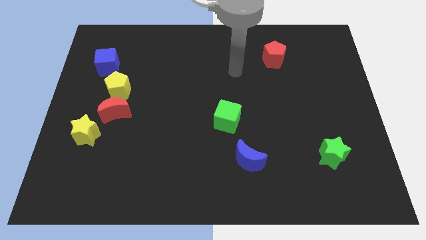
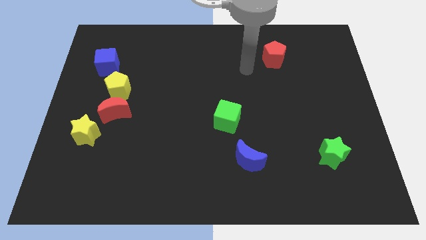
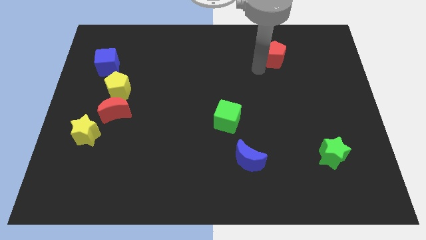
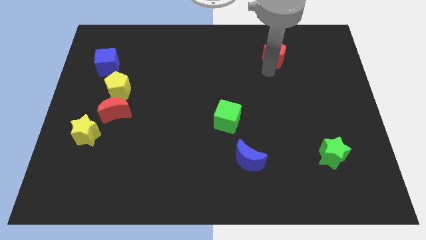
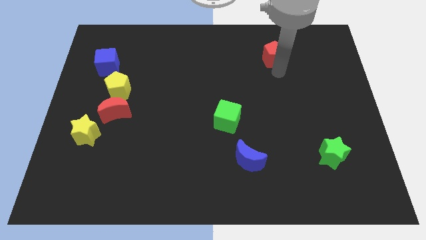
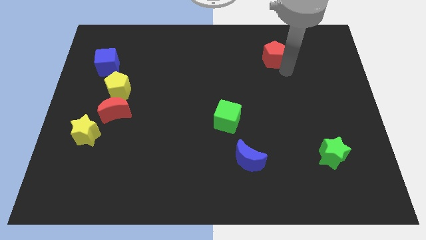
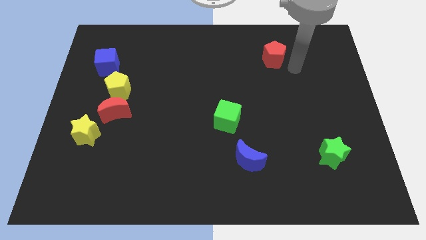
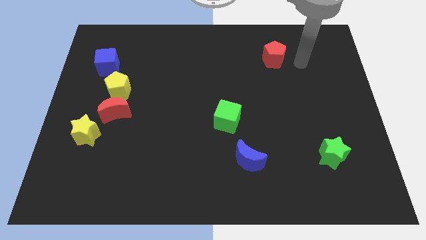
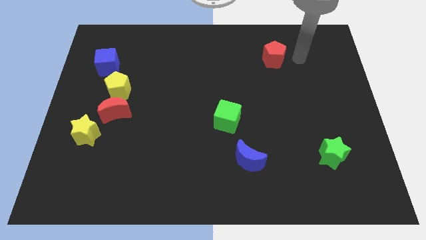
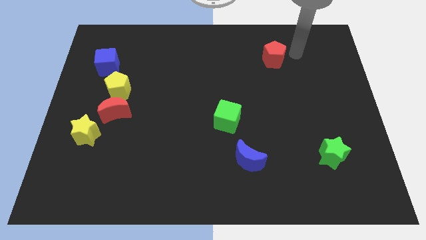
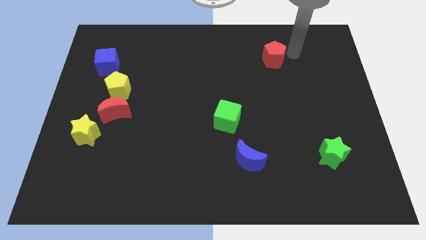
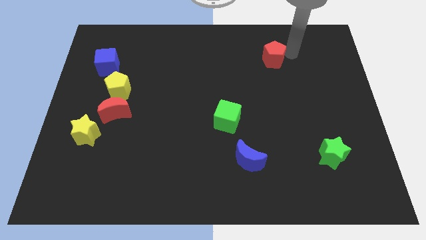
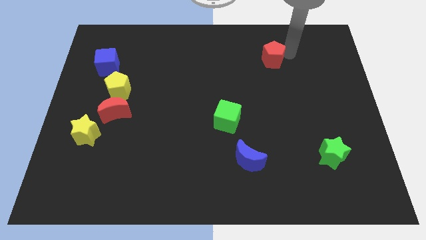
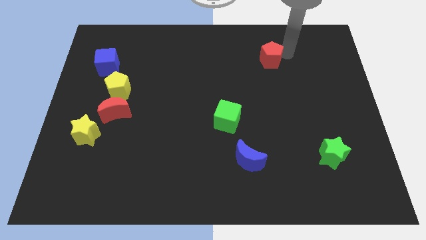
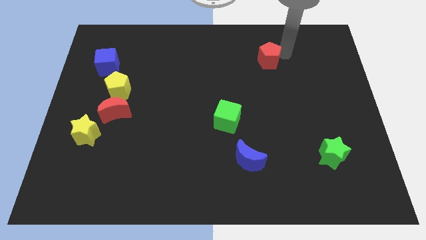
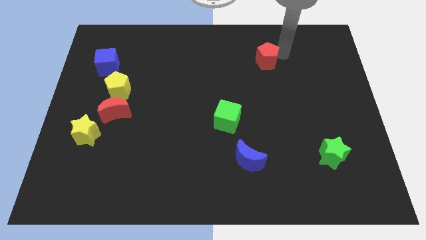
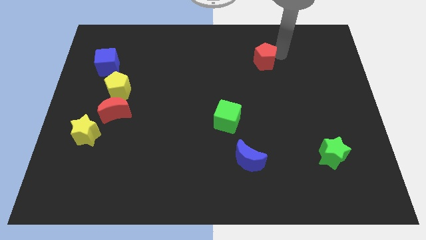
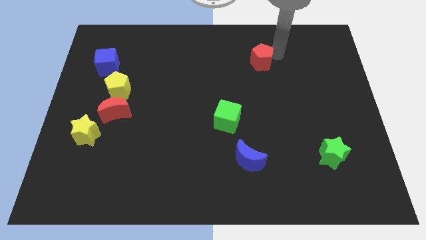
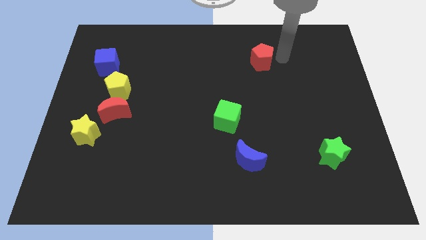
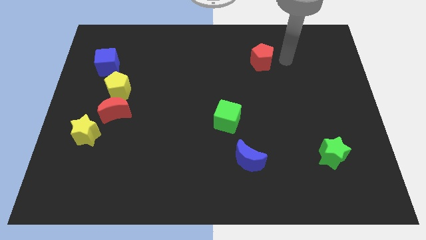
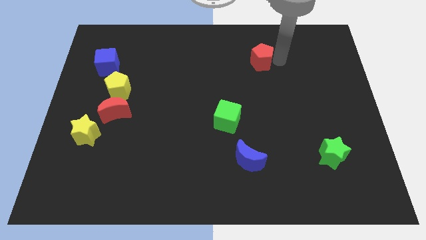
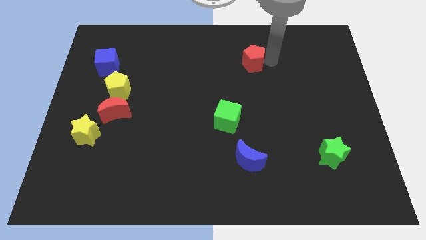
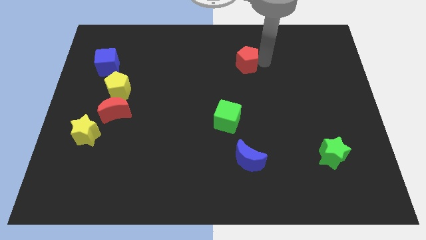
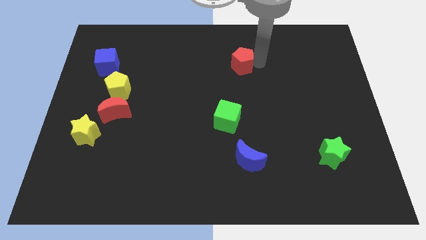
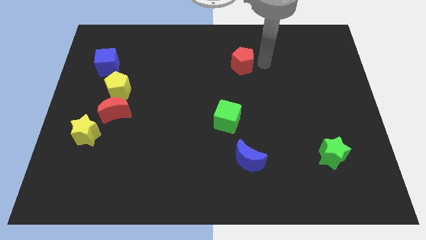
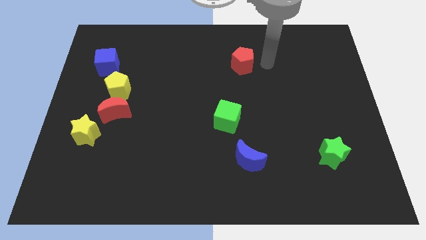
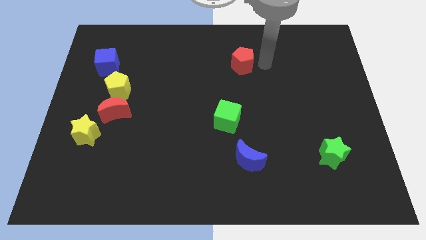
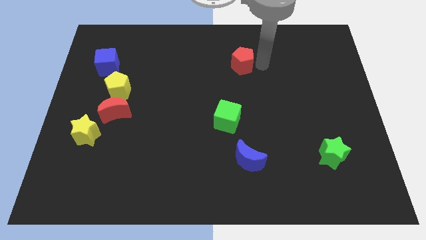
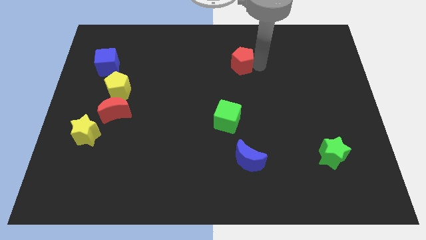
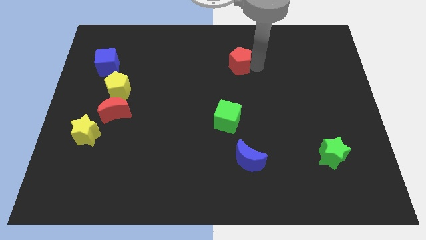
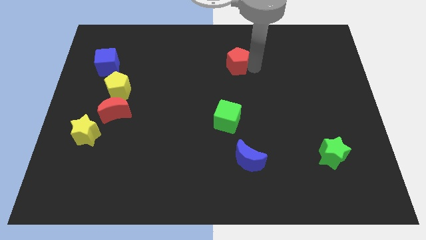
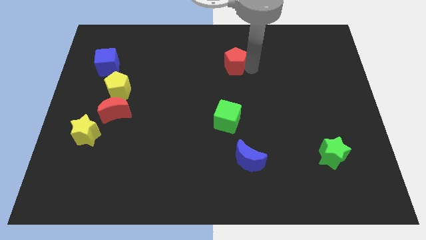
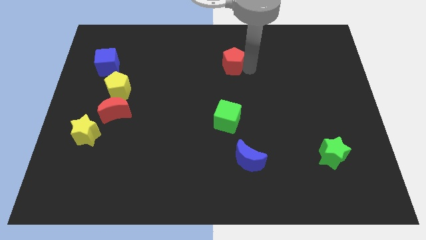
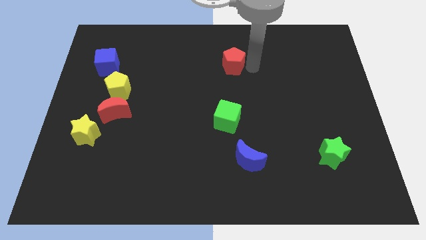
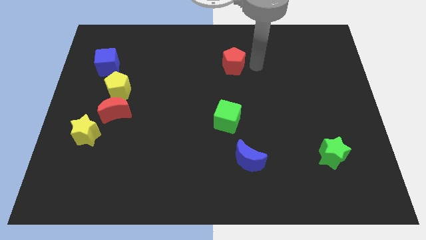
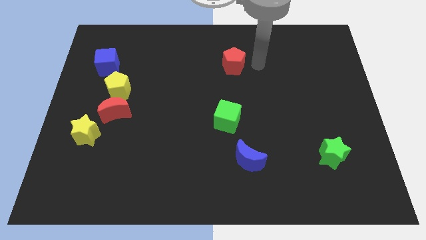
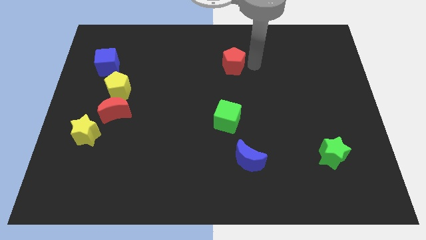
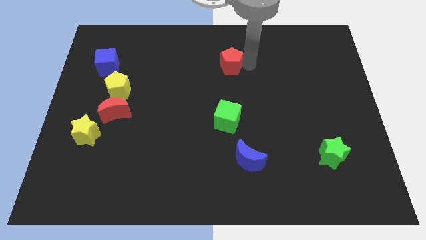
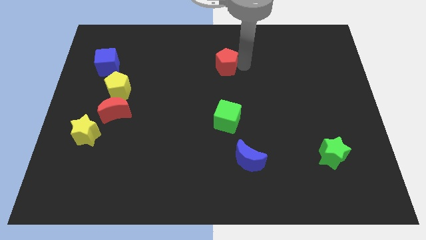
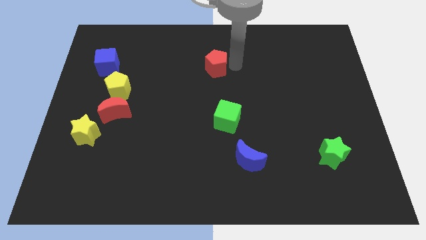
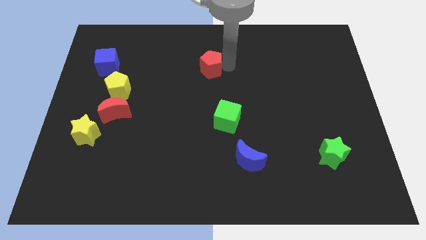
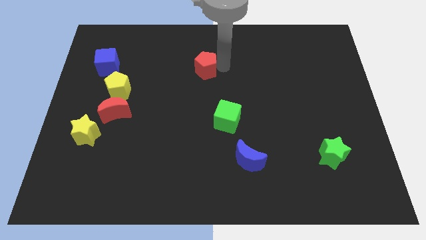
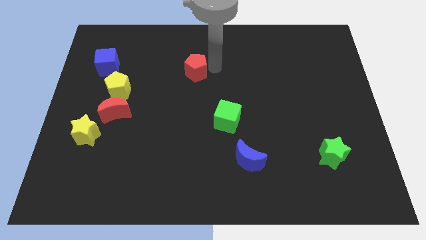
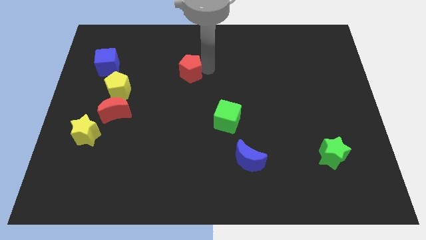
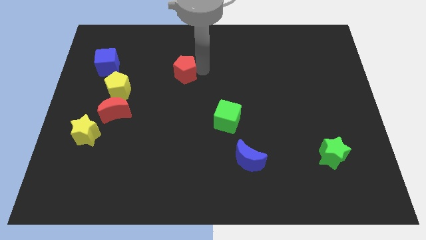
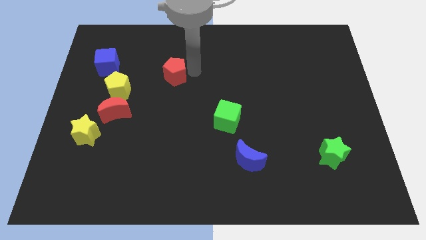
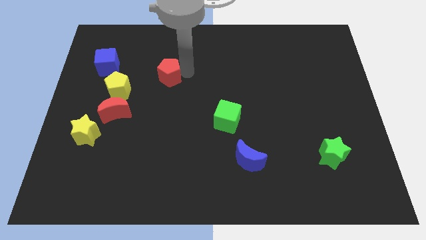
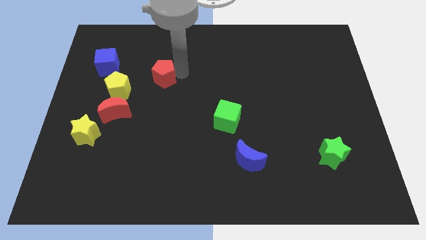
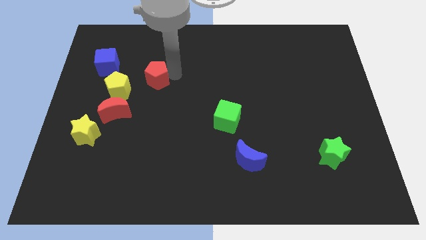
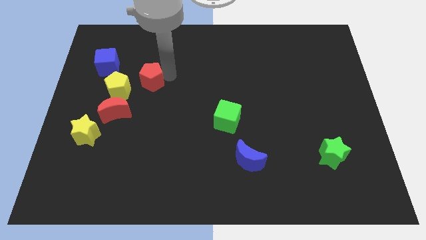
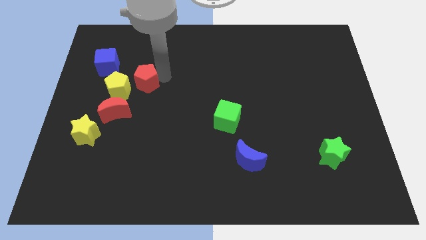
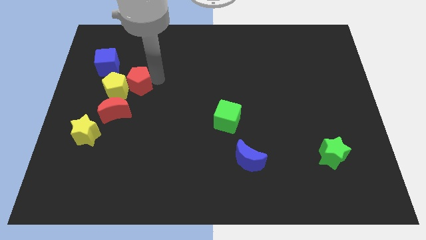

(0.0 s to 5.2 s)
put the red pentagon to the yellow pentagon

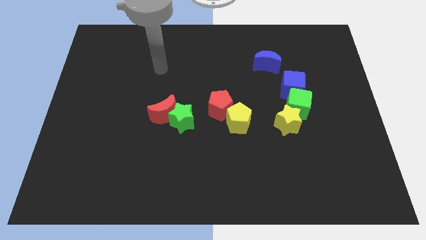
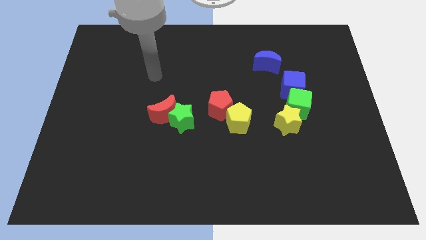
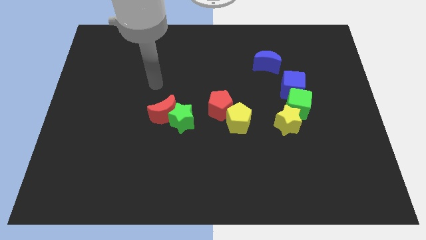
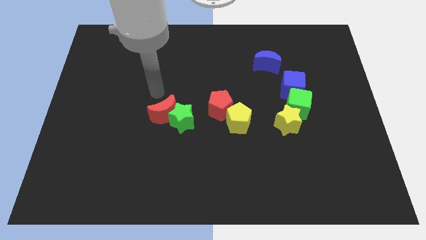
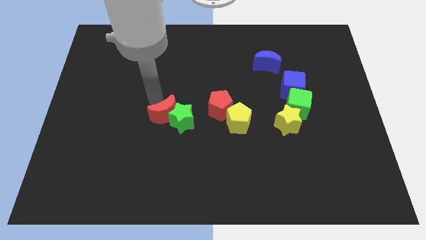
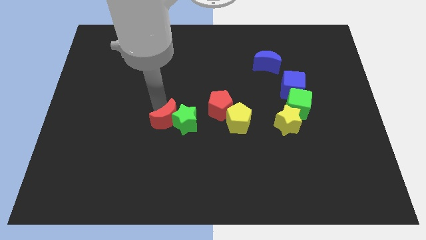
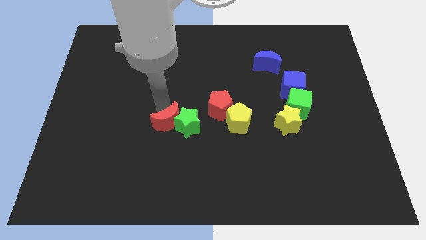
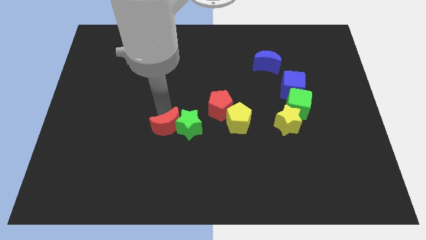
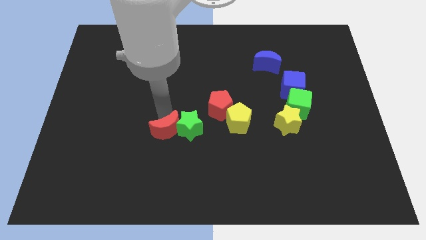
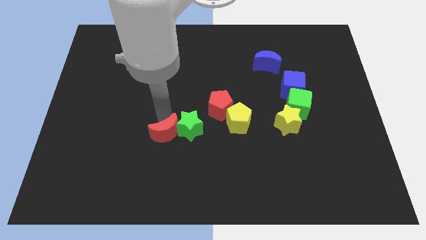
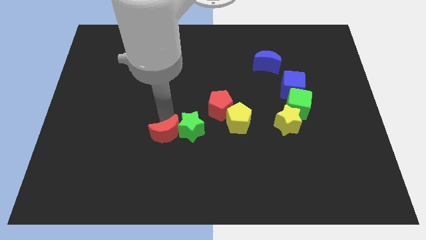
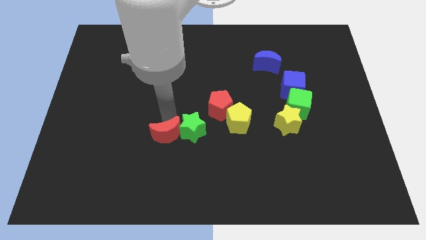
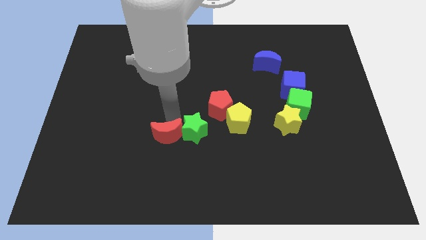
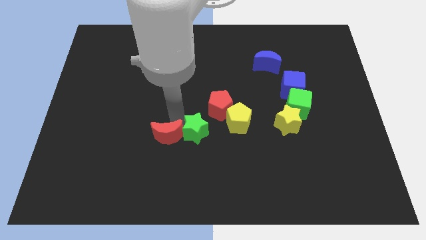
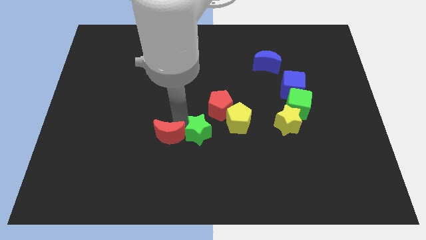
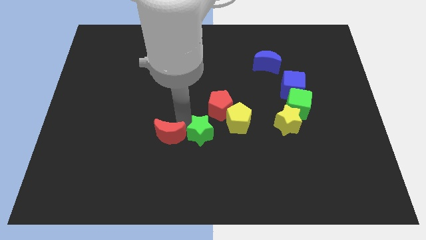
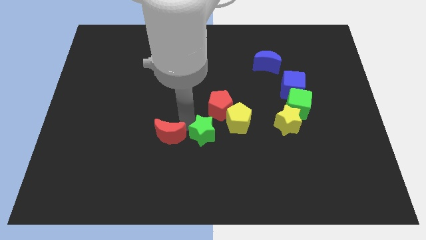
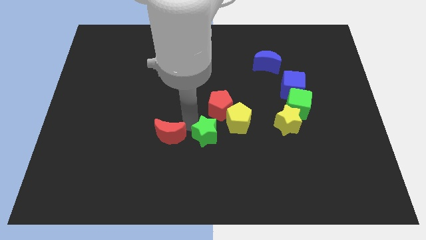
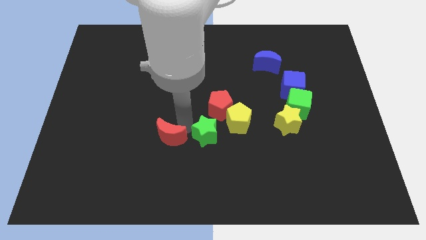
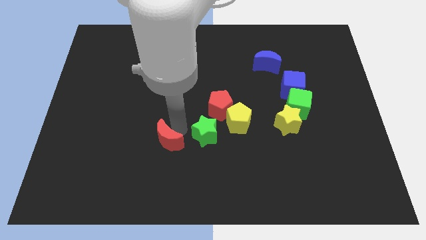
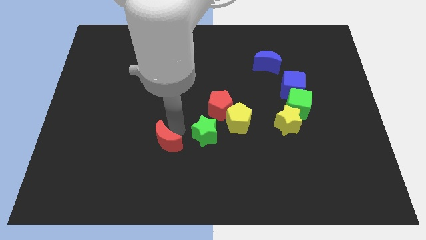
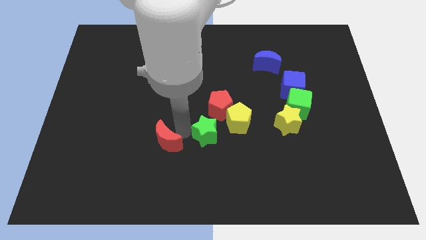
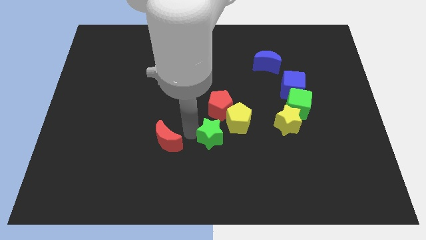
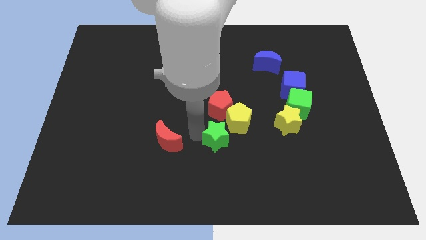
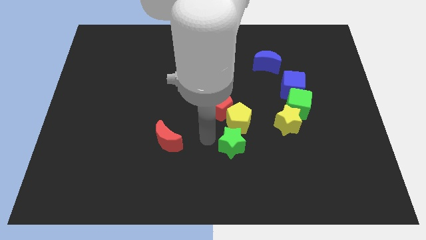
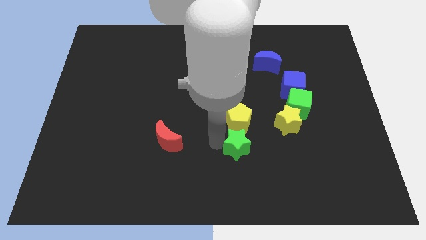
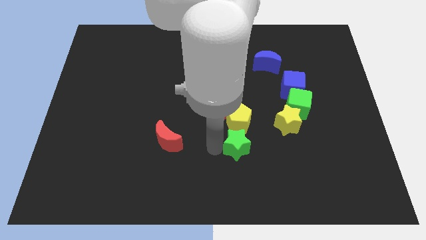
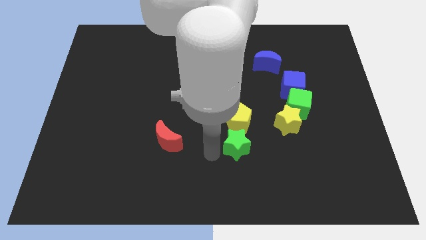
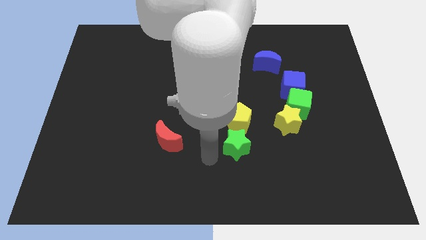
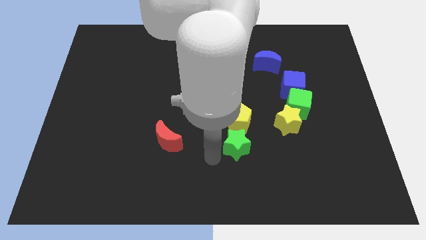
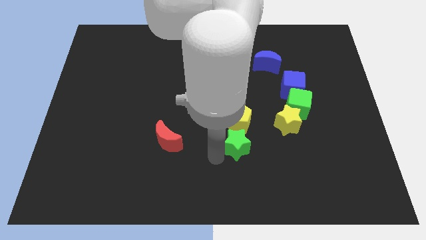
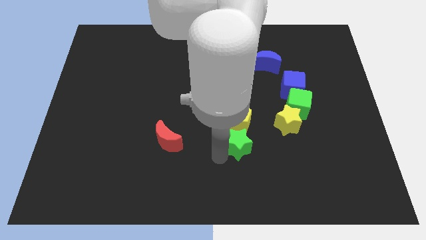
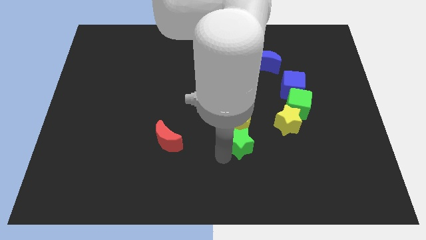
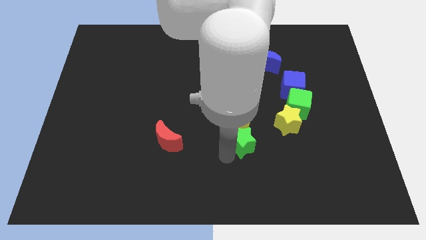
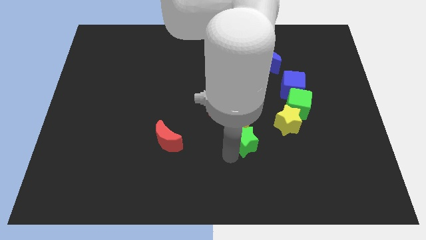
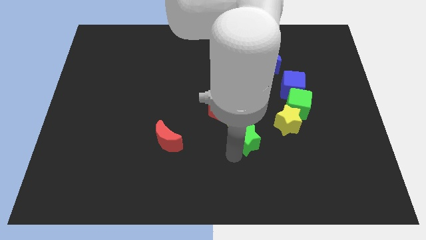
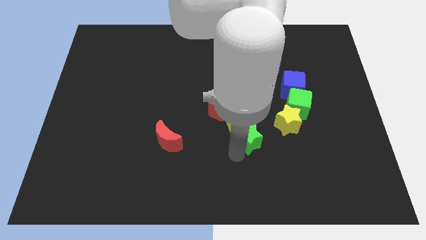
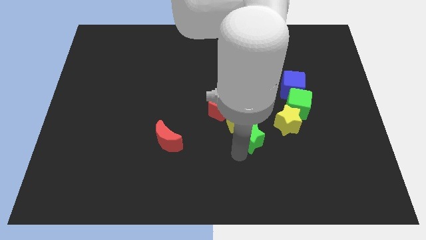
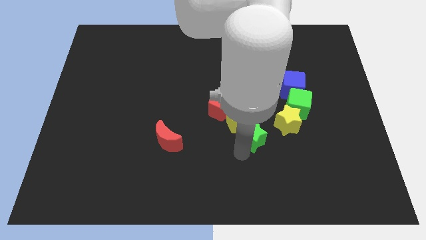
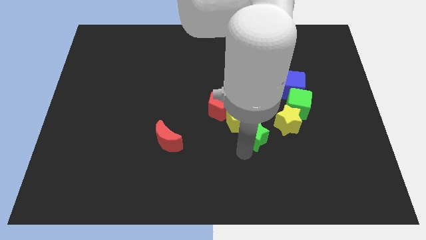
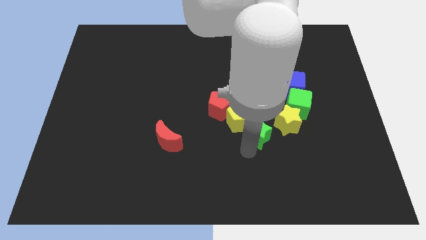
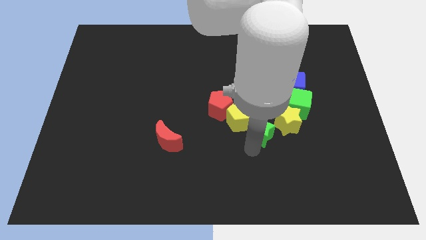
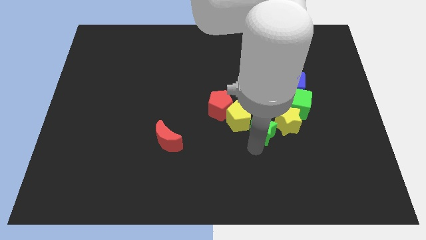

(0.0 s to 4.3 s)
slide the green star close to the yellow star
